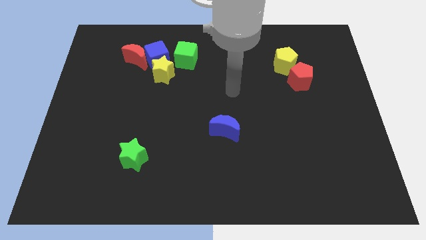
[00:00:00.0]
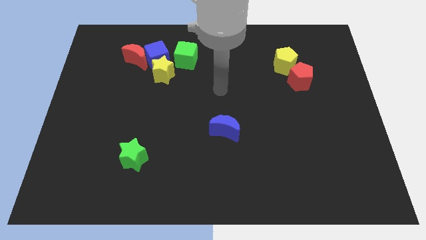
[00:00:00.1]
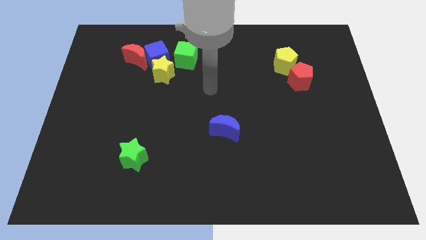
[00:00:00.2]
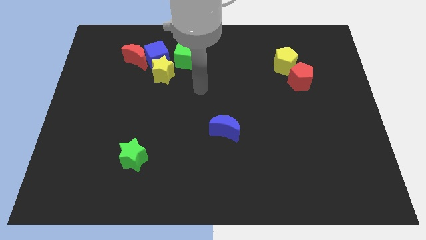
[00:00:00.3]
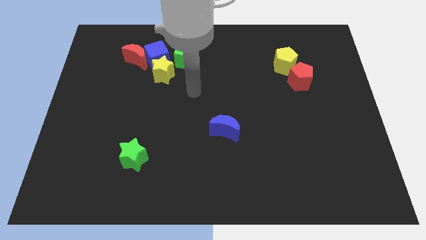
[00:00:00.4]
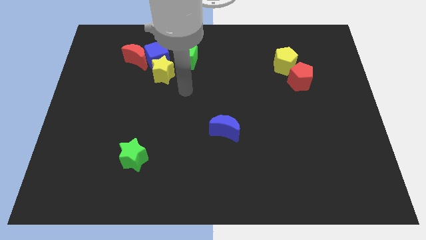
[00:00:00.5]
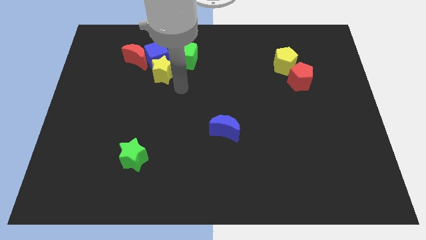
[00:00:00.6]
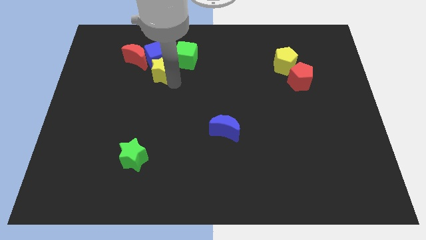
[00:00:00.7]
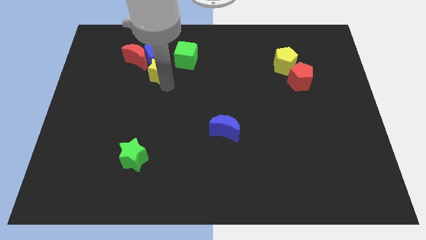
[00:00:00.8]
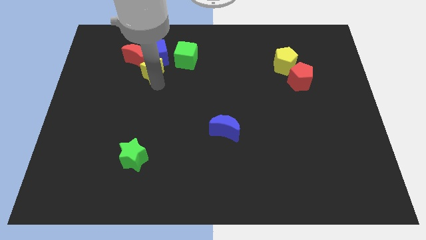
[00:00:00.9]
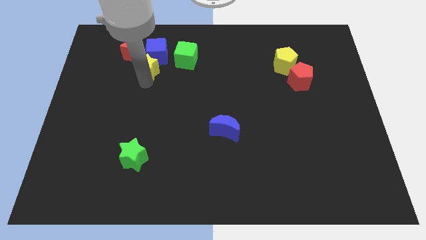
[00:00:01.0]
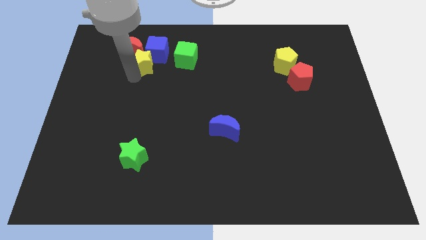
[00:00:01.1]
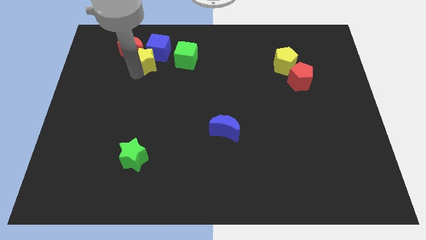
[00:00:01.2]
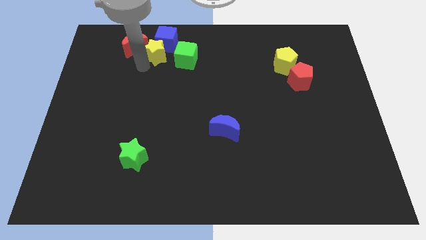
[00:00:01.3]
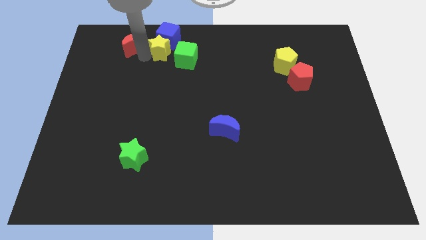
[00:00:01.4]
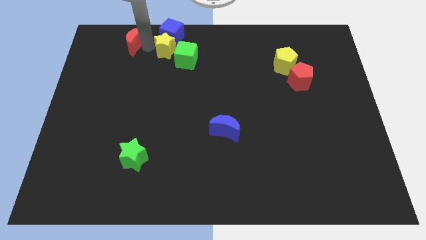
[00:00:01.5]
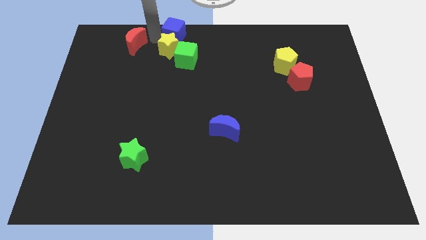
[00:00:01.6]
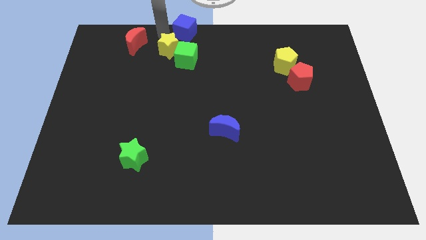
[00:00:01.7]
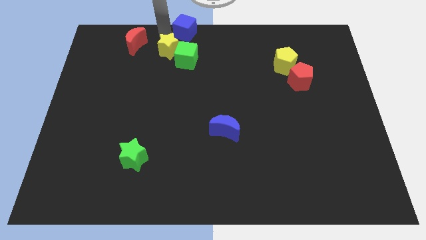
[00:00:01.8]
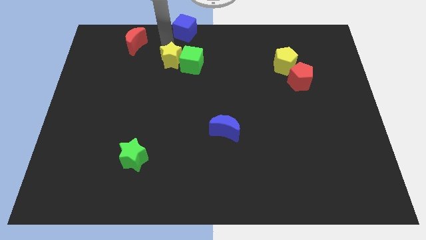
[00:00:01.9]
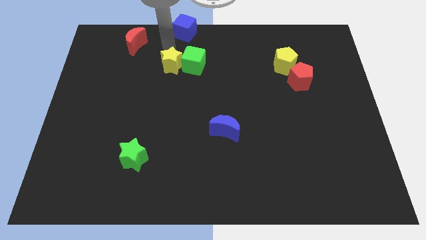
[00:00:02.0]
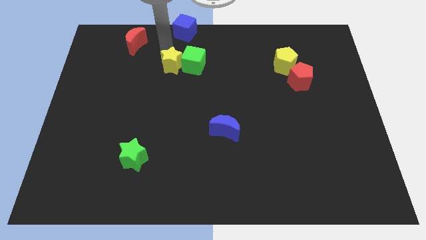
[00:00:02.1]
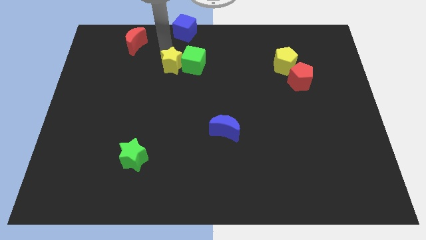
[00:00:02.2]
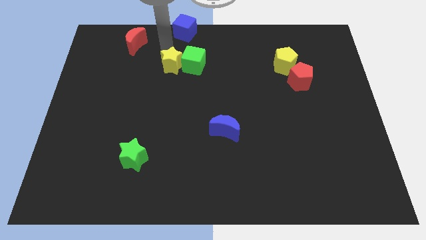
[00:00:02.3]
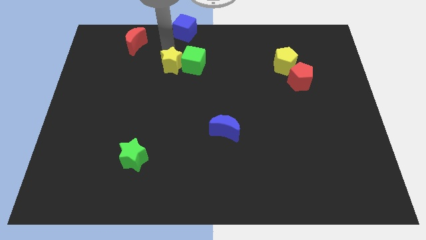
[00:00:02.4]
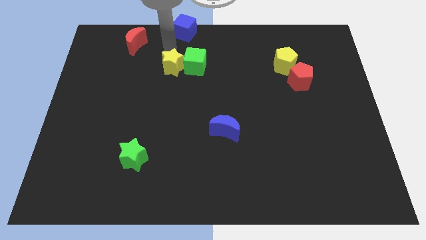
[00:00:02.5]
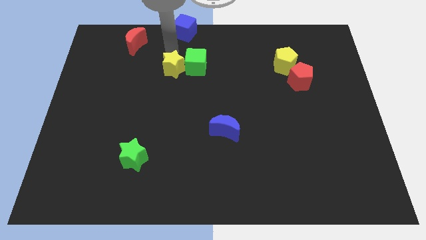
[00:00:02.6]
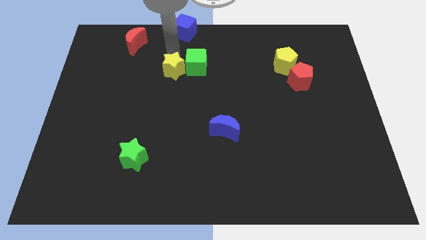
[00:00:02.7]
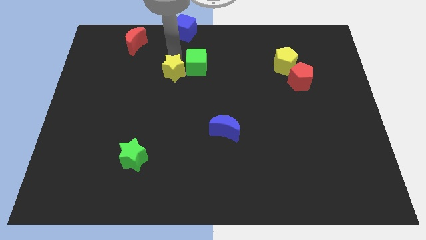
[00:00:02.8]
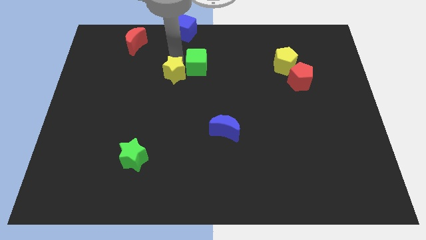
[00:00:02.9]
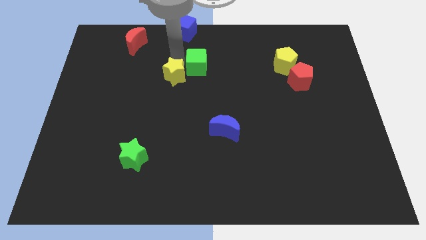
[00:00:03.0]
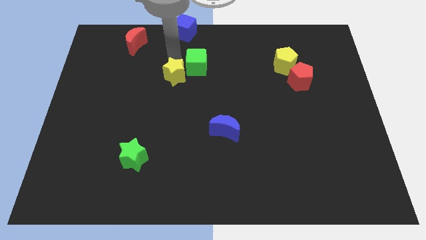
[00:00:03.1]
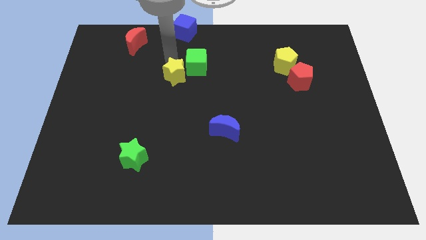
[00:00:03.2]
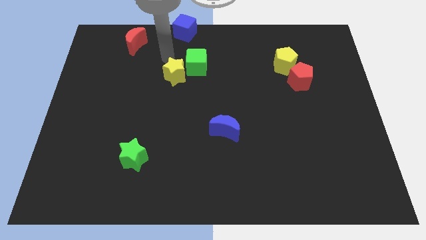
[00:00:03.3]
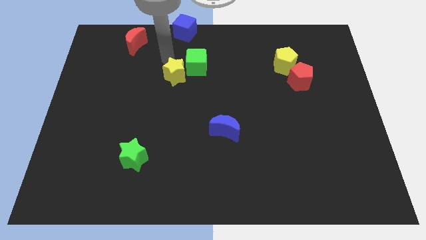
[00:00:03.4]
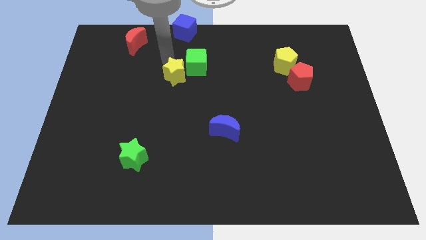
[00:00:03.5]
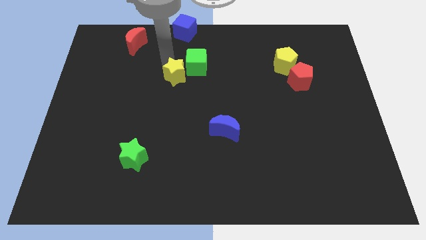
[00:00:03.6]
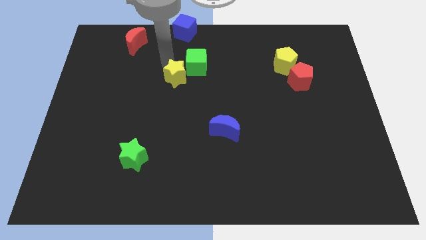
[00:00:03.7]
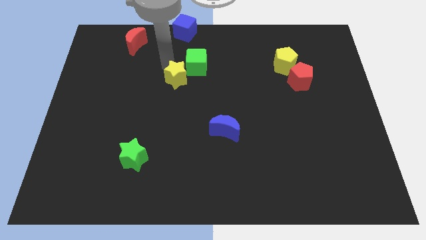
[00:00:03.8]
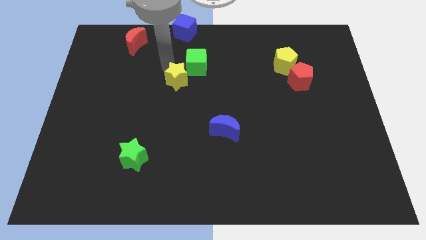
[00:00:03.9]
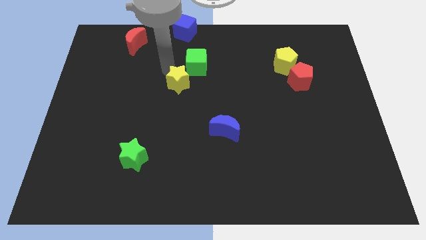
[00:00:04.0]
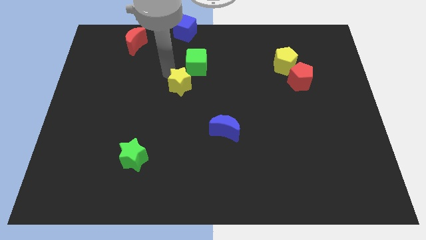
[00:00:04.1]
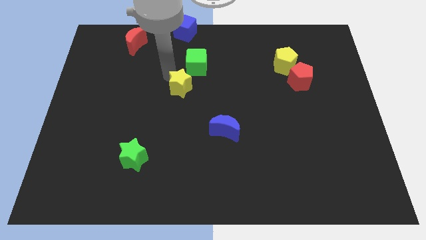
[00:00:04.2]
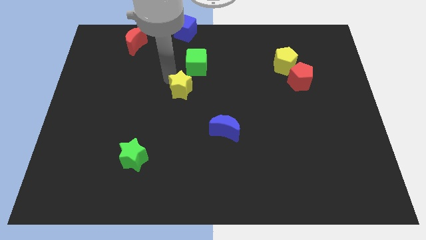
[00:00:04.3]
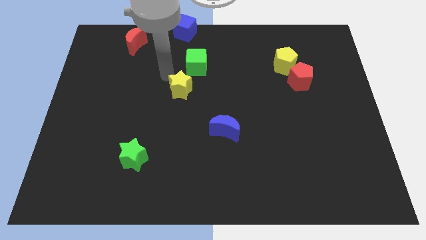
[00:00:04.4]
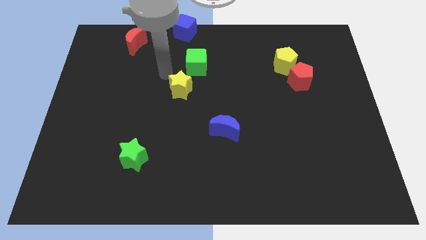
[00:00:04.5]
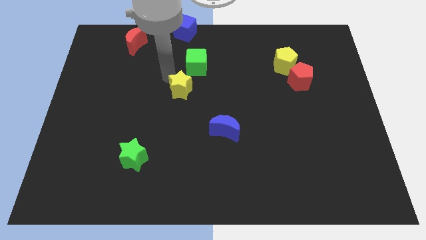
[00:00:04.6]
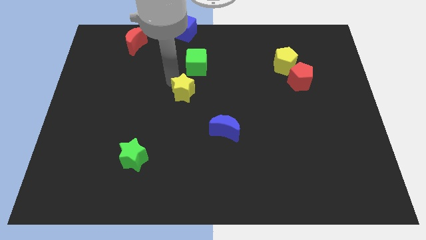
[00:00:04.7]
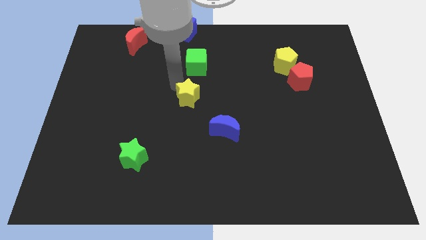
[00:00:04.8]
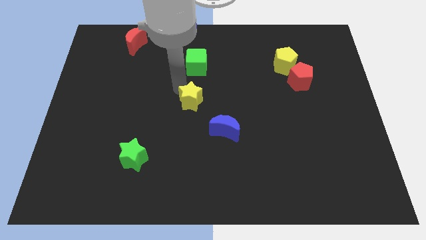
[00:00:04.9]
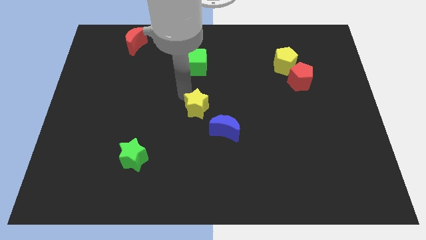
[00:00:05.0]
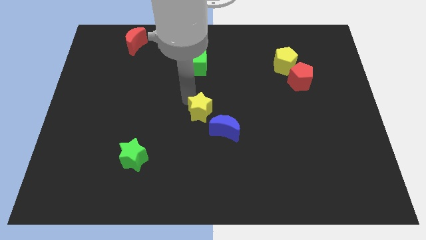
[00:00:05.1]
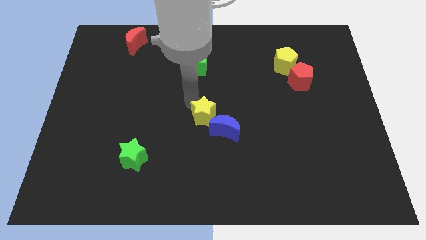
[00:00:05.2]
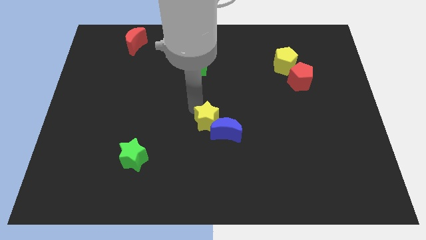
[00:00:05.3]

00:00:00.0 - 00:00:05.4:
push the yellow star to the blue moon

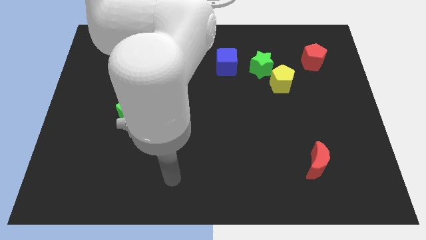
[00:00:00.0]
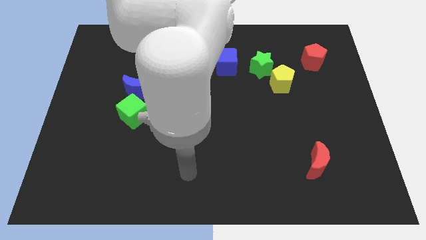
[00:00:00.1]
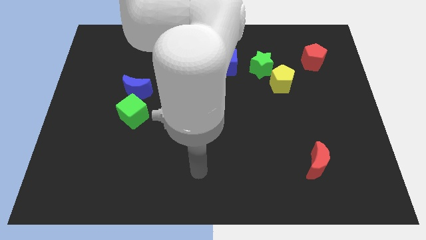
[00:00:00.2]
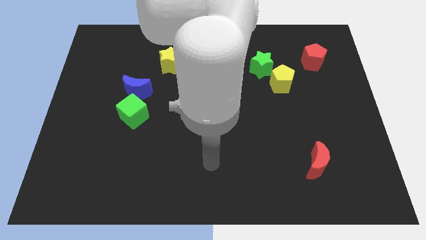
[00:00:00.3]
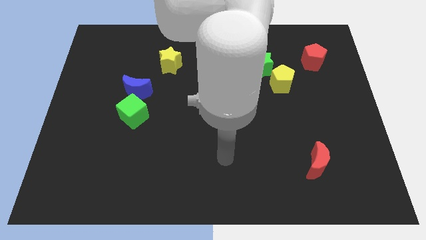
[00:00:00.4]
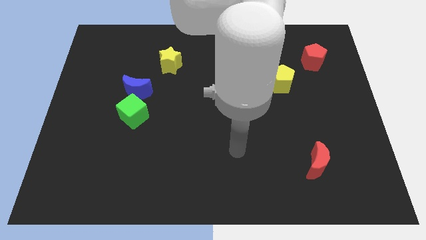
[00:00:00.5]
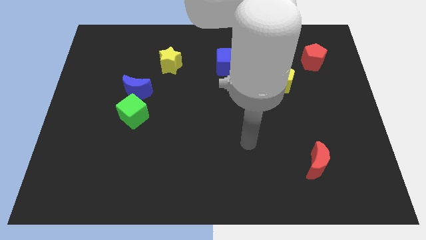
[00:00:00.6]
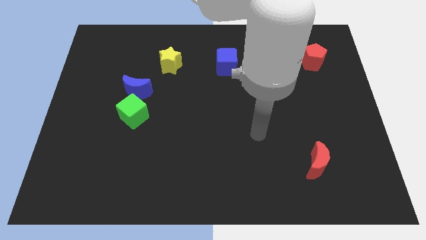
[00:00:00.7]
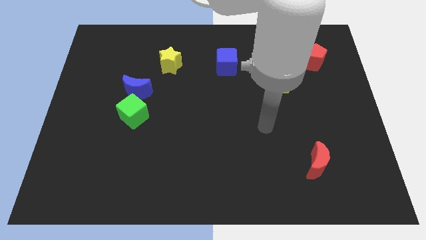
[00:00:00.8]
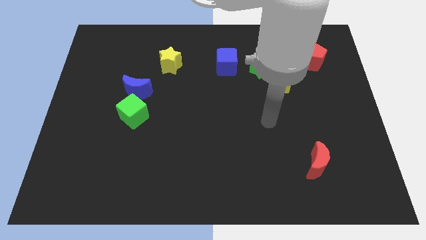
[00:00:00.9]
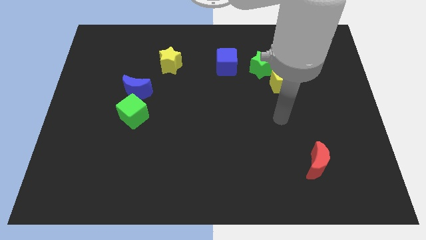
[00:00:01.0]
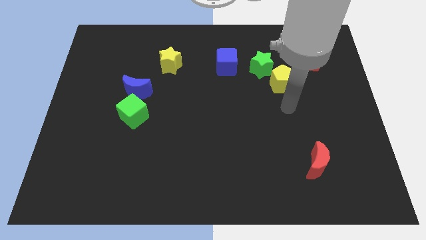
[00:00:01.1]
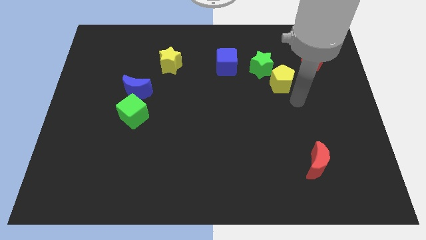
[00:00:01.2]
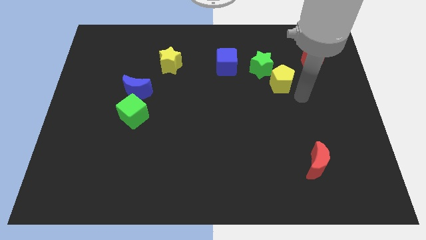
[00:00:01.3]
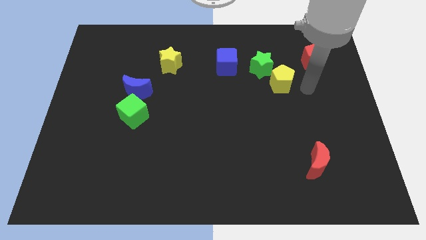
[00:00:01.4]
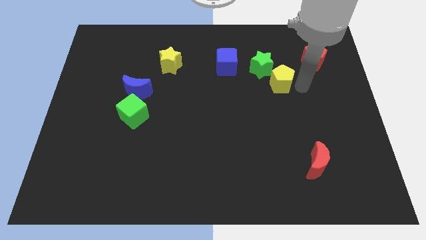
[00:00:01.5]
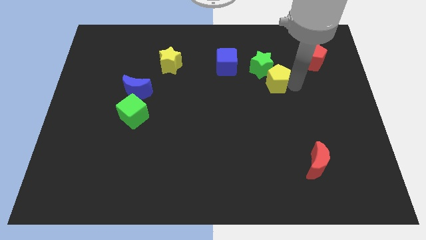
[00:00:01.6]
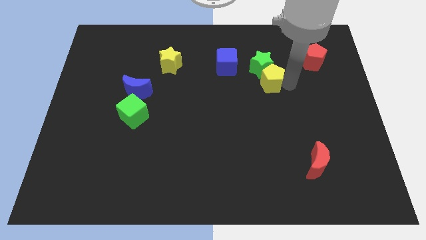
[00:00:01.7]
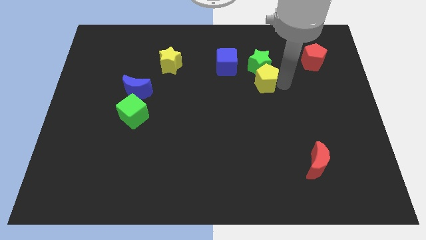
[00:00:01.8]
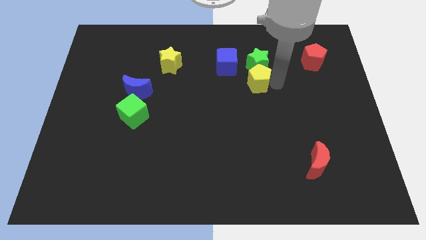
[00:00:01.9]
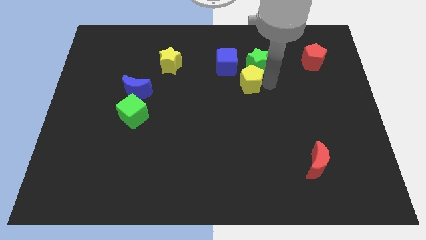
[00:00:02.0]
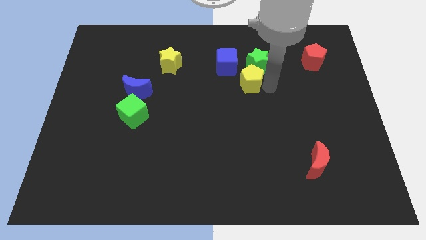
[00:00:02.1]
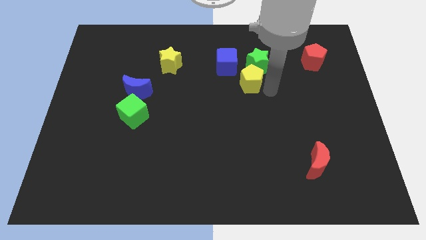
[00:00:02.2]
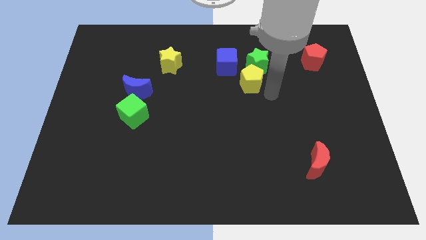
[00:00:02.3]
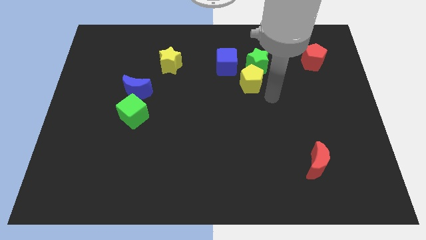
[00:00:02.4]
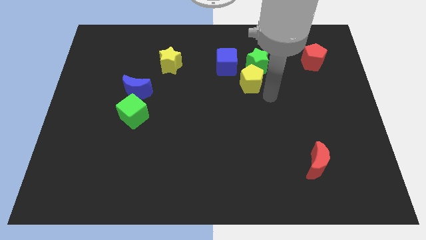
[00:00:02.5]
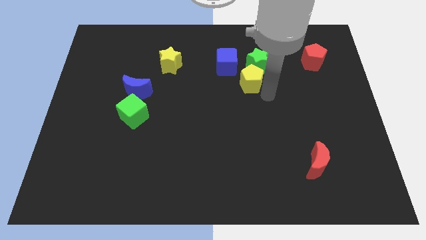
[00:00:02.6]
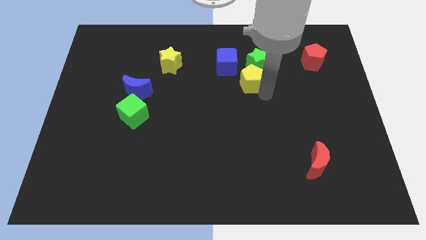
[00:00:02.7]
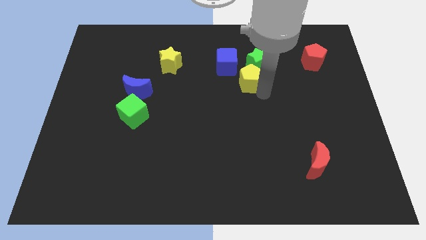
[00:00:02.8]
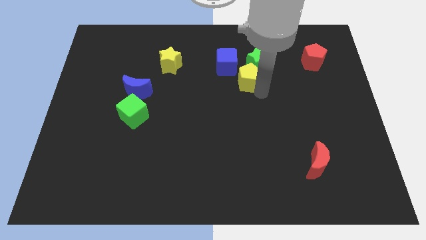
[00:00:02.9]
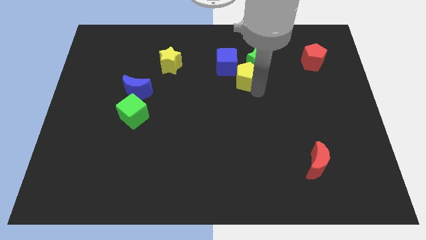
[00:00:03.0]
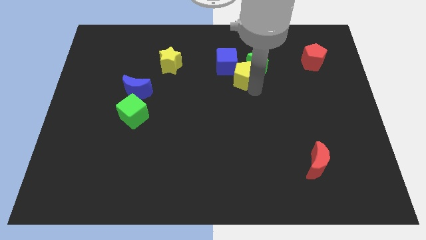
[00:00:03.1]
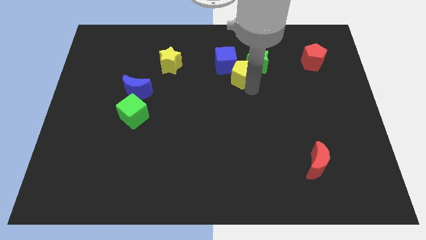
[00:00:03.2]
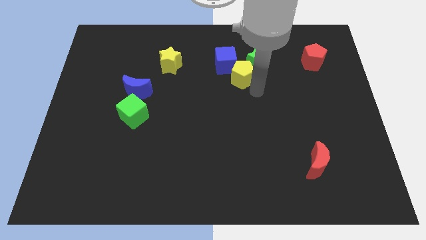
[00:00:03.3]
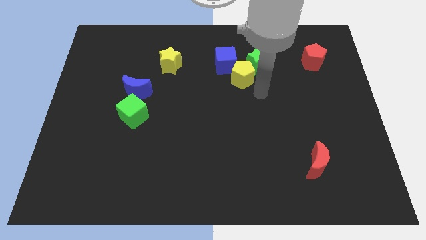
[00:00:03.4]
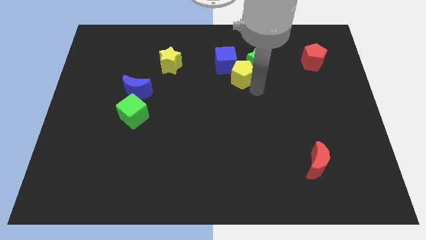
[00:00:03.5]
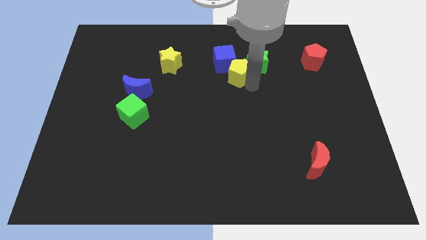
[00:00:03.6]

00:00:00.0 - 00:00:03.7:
move the yellow pentagon to the blue cube
